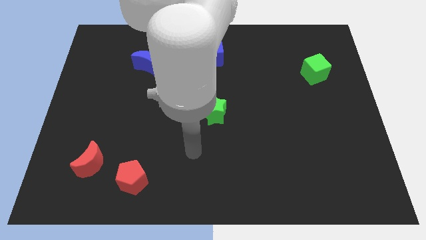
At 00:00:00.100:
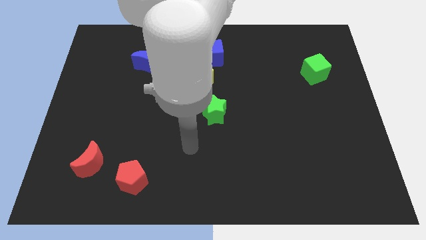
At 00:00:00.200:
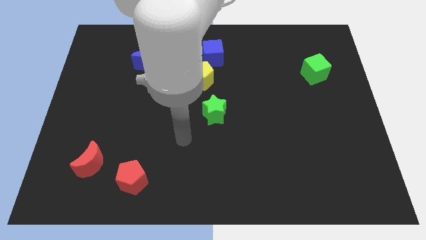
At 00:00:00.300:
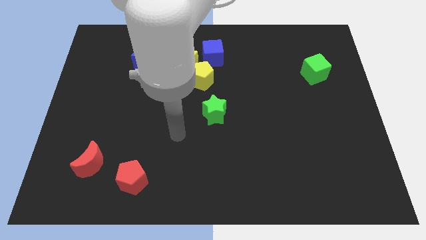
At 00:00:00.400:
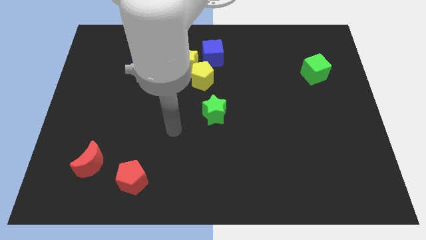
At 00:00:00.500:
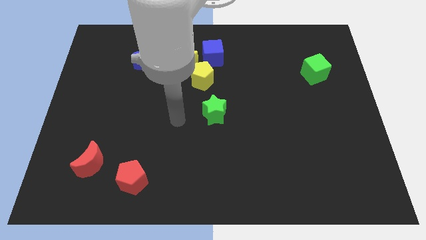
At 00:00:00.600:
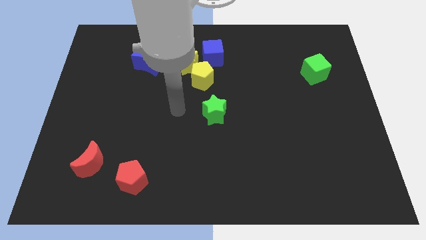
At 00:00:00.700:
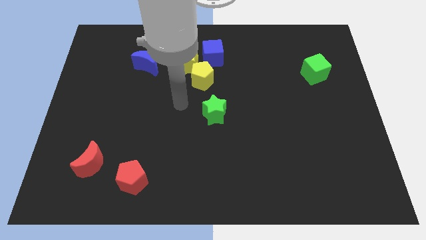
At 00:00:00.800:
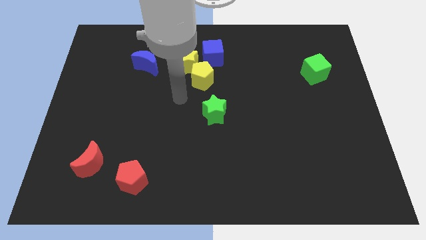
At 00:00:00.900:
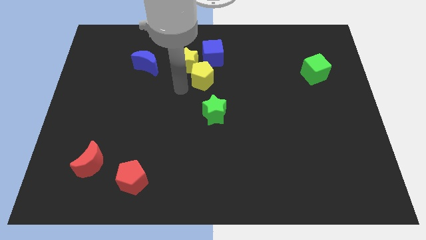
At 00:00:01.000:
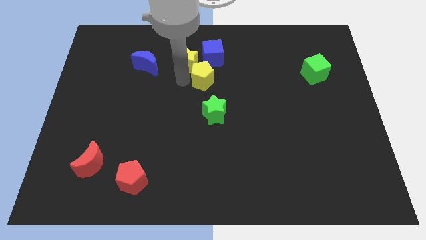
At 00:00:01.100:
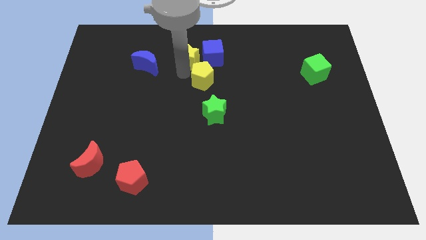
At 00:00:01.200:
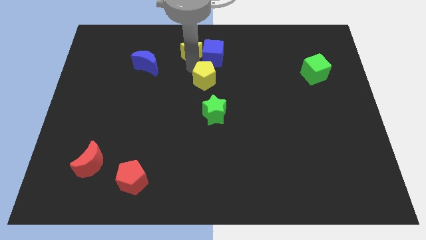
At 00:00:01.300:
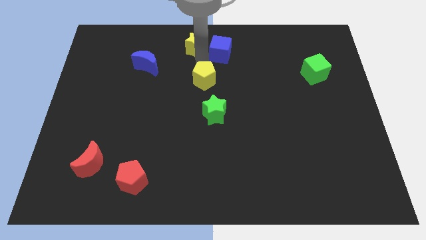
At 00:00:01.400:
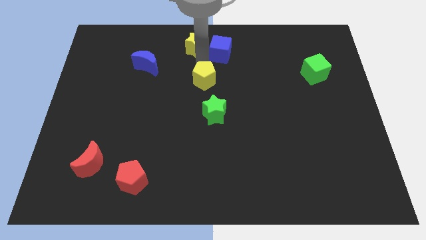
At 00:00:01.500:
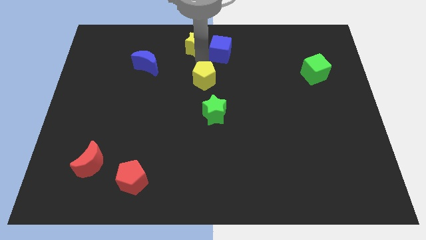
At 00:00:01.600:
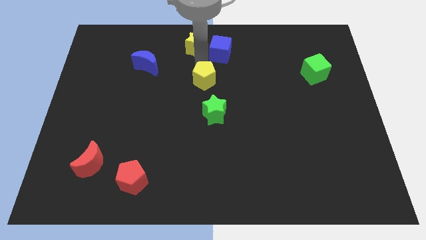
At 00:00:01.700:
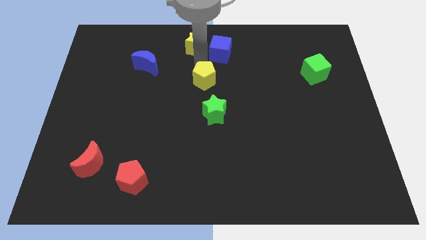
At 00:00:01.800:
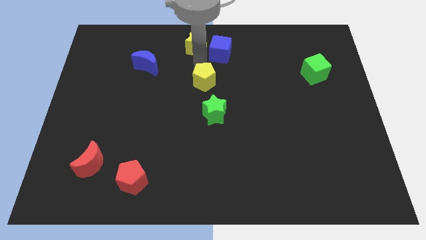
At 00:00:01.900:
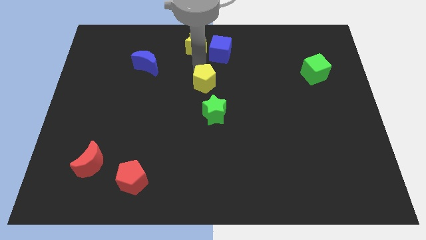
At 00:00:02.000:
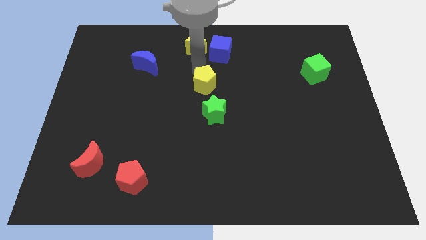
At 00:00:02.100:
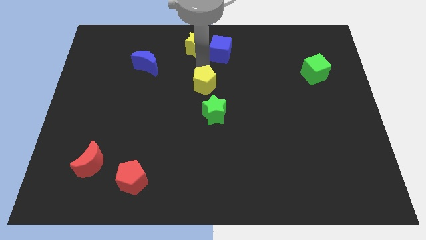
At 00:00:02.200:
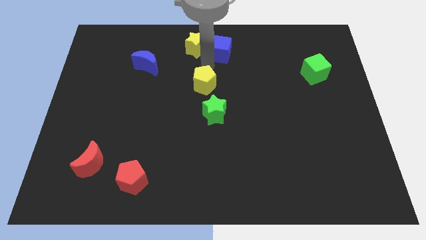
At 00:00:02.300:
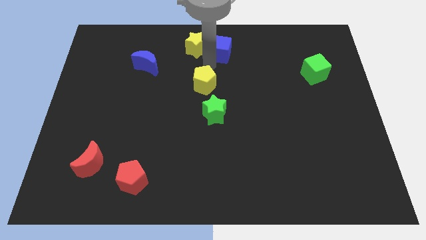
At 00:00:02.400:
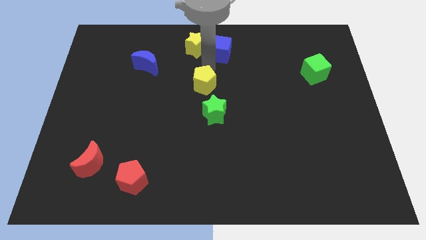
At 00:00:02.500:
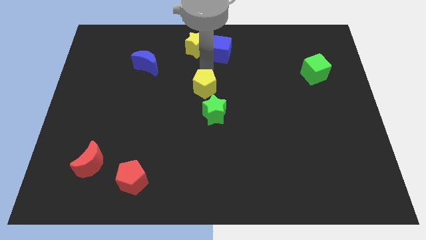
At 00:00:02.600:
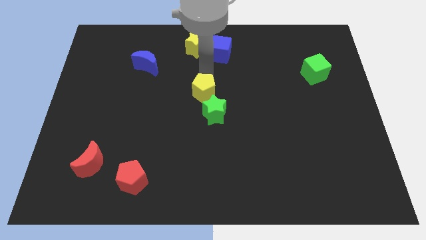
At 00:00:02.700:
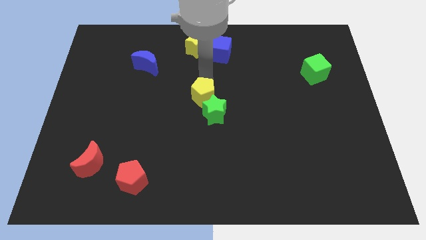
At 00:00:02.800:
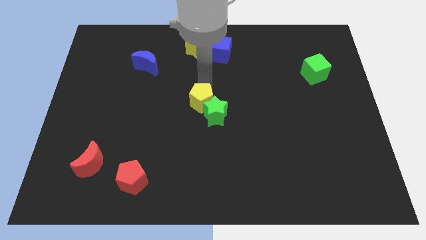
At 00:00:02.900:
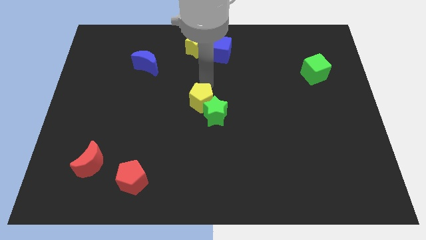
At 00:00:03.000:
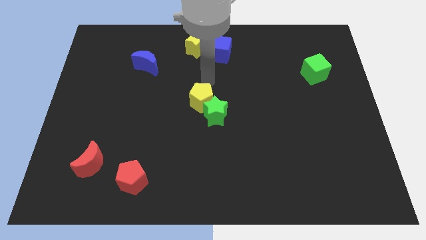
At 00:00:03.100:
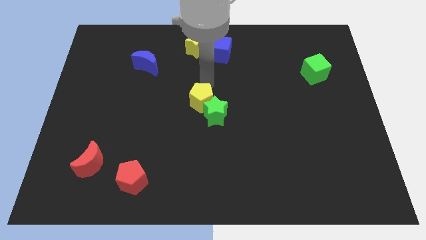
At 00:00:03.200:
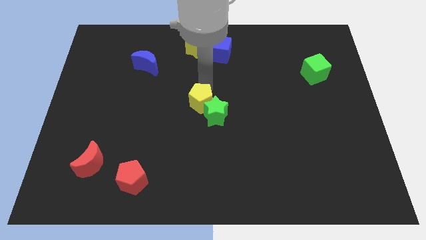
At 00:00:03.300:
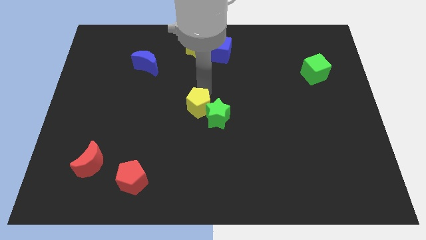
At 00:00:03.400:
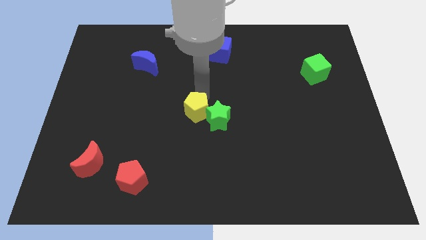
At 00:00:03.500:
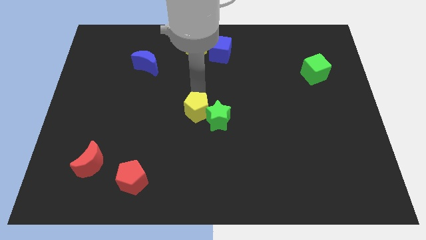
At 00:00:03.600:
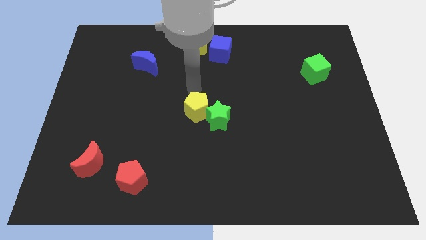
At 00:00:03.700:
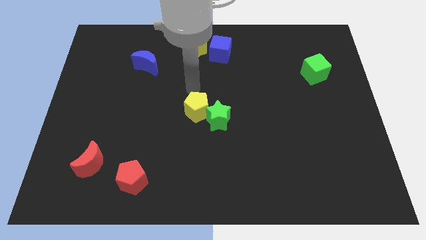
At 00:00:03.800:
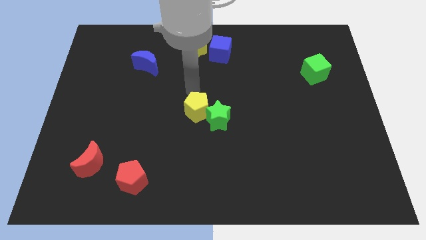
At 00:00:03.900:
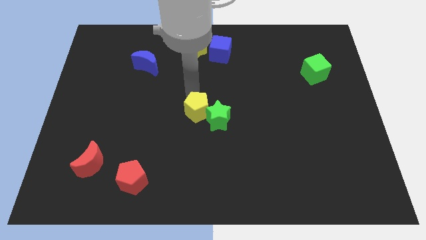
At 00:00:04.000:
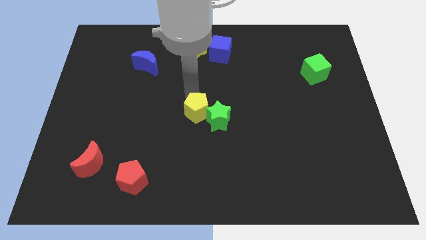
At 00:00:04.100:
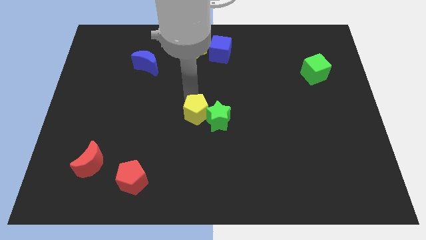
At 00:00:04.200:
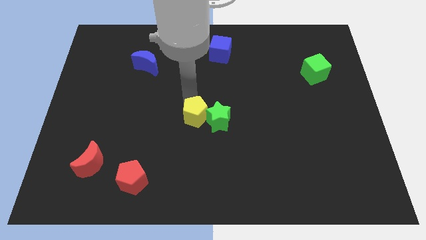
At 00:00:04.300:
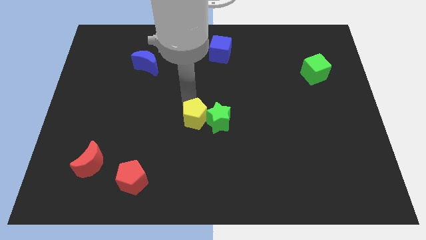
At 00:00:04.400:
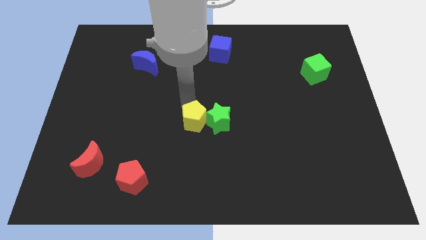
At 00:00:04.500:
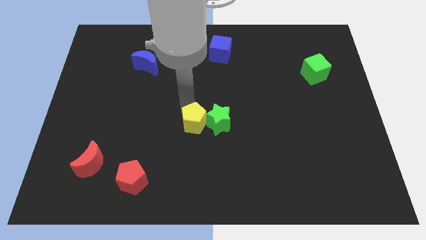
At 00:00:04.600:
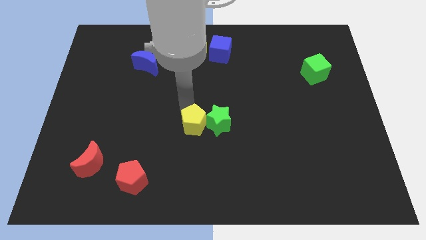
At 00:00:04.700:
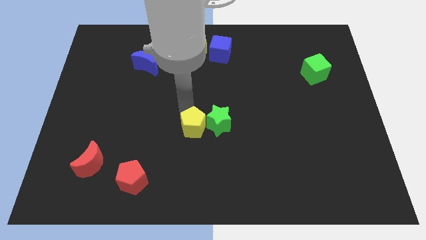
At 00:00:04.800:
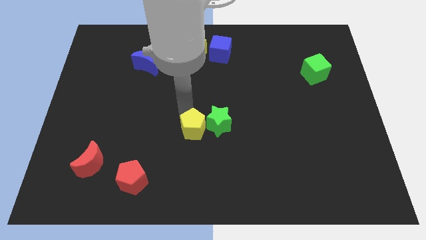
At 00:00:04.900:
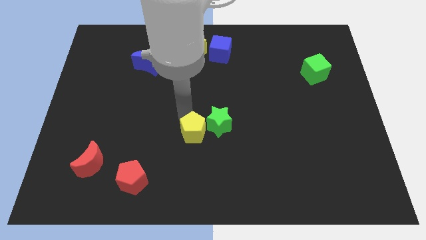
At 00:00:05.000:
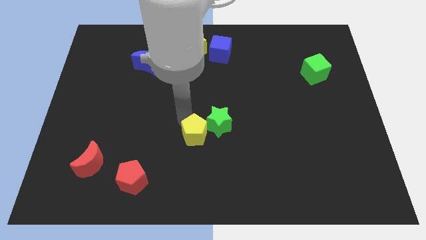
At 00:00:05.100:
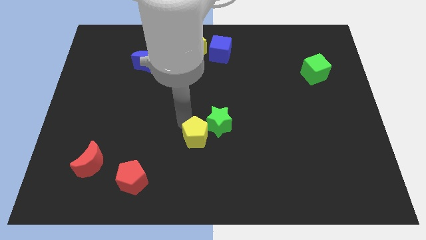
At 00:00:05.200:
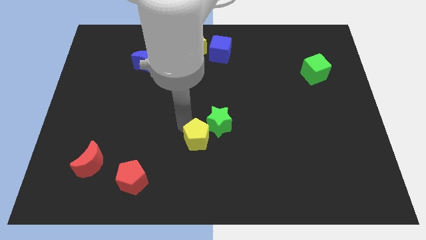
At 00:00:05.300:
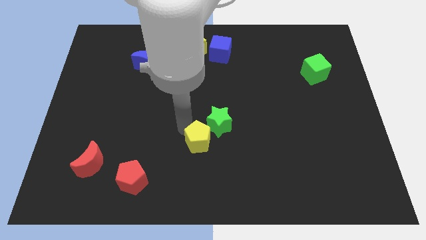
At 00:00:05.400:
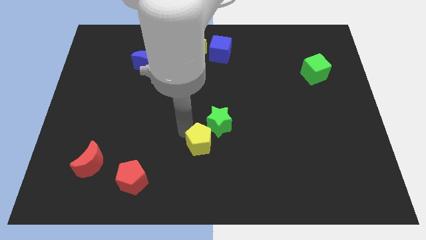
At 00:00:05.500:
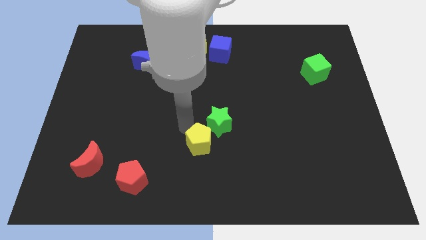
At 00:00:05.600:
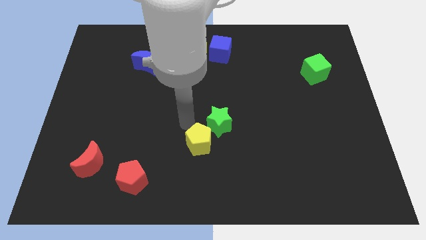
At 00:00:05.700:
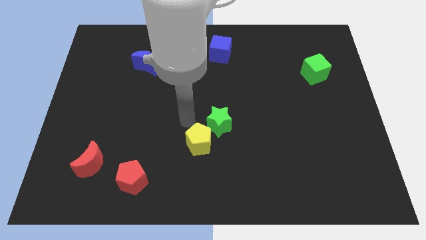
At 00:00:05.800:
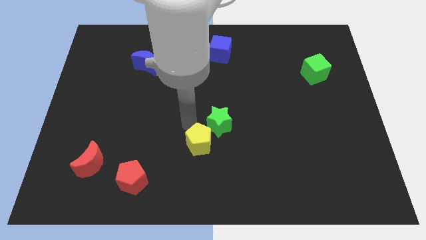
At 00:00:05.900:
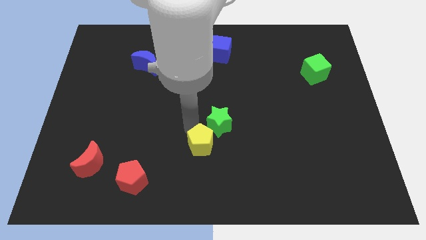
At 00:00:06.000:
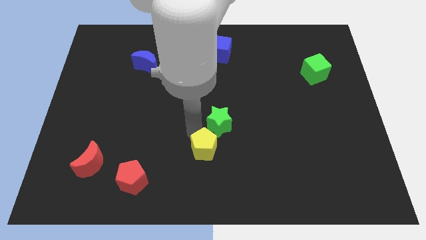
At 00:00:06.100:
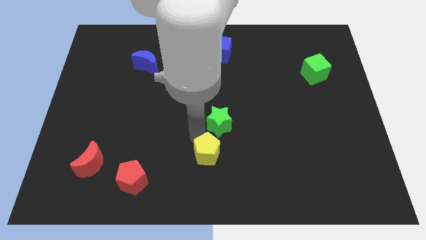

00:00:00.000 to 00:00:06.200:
push the yellow pentagon to the bottom side

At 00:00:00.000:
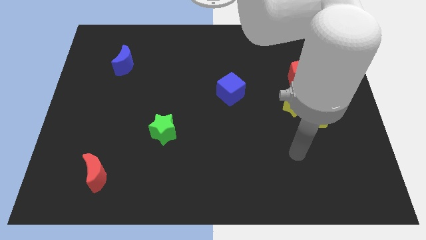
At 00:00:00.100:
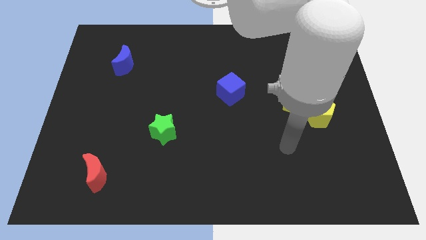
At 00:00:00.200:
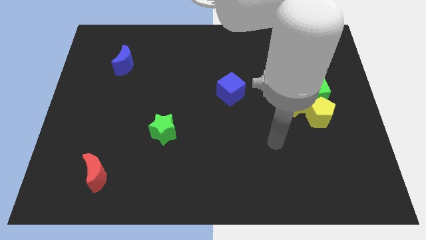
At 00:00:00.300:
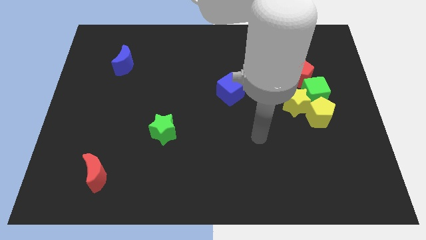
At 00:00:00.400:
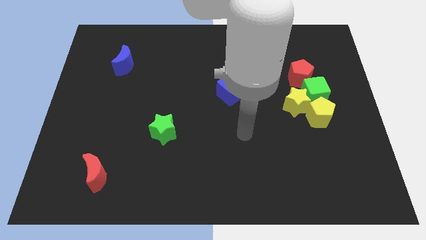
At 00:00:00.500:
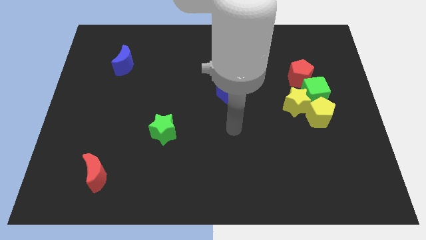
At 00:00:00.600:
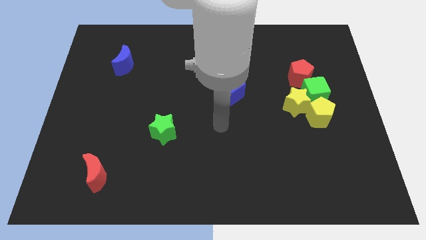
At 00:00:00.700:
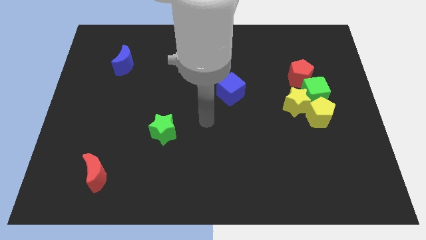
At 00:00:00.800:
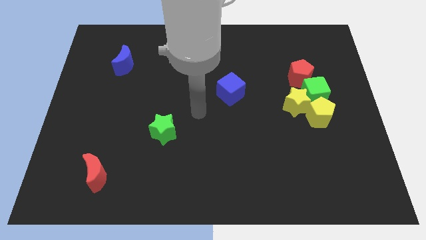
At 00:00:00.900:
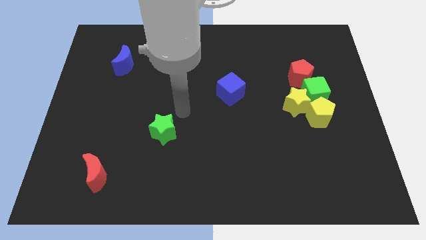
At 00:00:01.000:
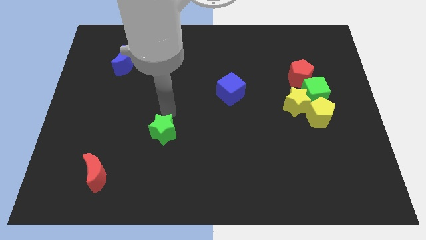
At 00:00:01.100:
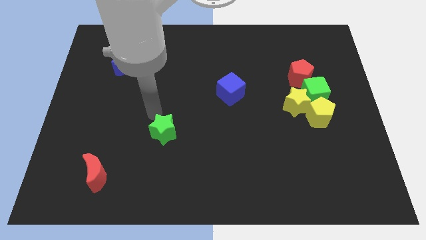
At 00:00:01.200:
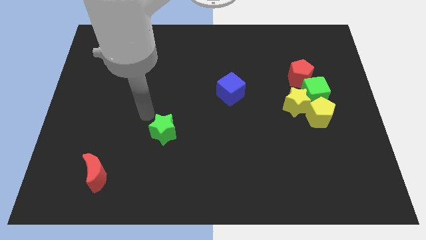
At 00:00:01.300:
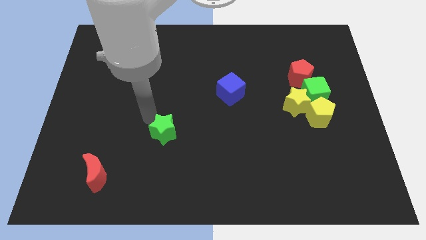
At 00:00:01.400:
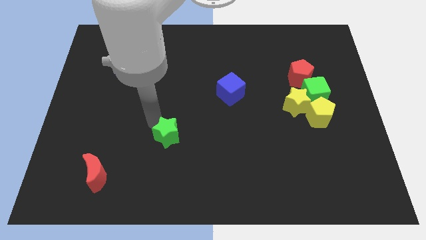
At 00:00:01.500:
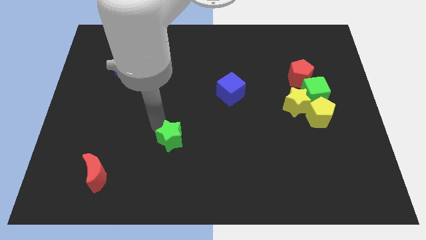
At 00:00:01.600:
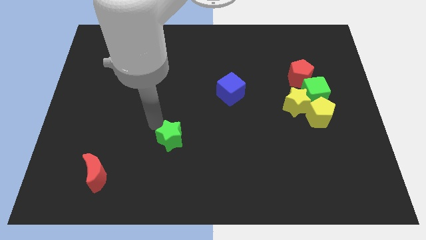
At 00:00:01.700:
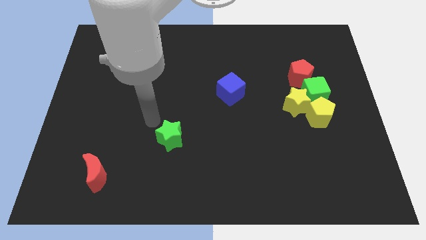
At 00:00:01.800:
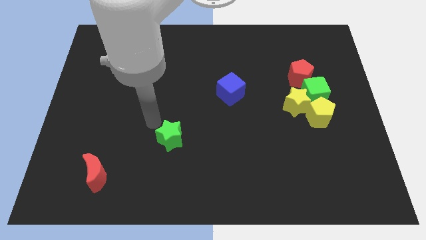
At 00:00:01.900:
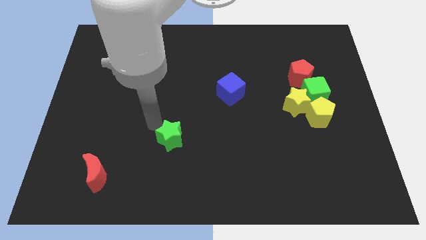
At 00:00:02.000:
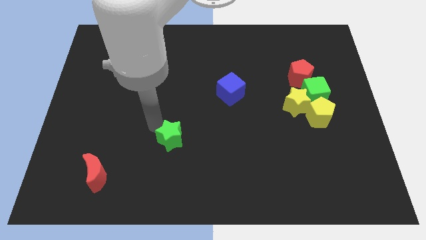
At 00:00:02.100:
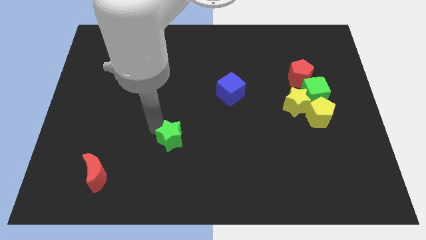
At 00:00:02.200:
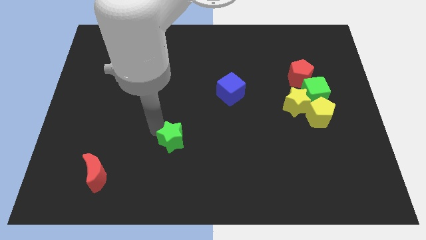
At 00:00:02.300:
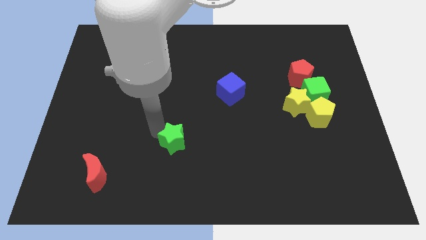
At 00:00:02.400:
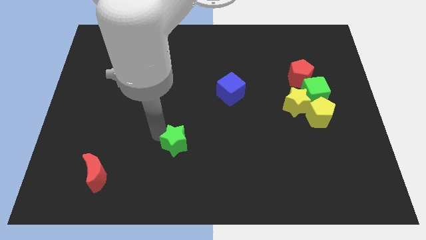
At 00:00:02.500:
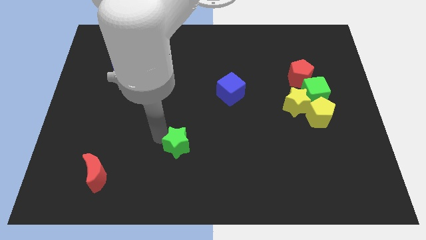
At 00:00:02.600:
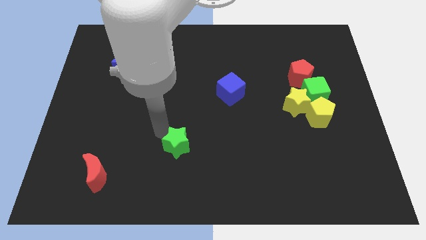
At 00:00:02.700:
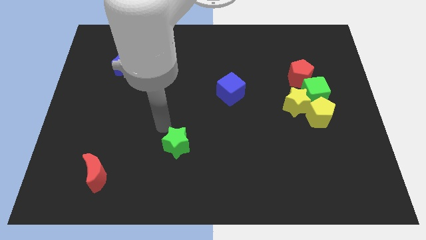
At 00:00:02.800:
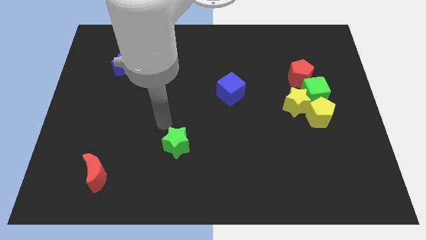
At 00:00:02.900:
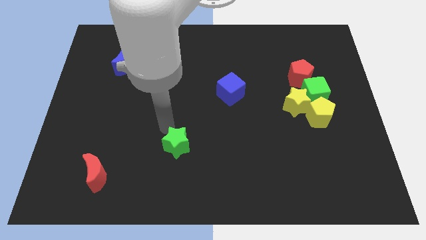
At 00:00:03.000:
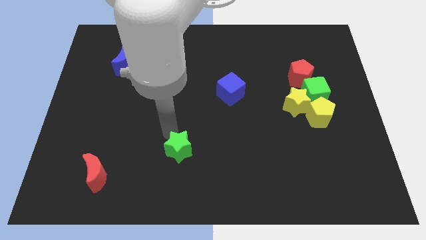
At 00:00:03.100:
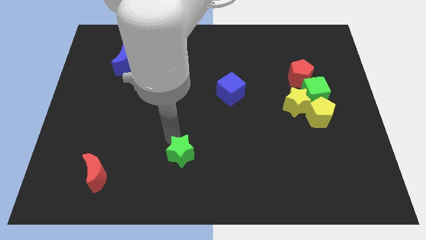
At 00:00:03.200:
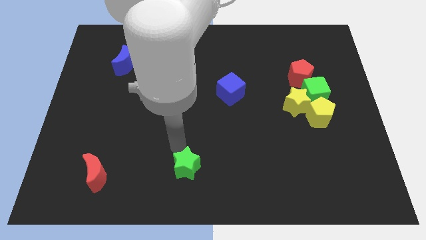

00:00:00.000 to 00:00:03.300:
push the green star to the bottom side
